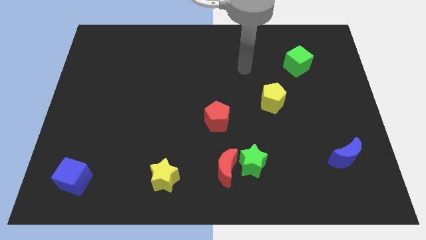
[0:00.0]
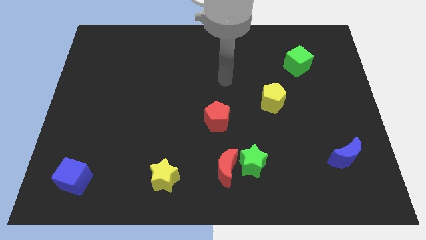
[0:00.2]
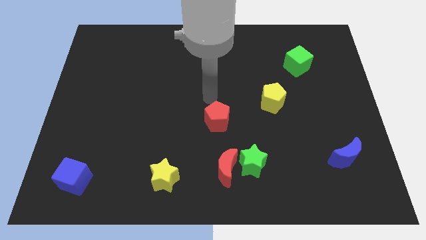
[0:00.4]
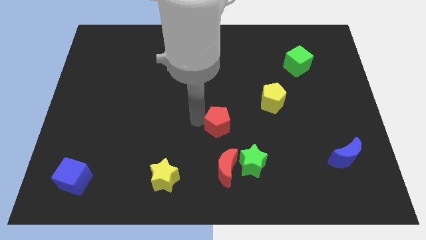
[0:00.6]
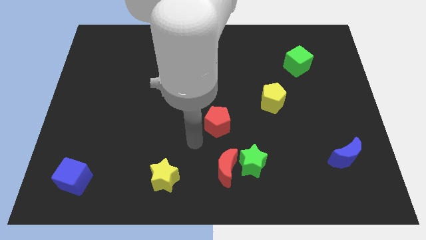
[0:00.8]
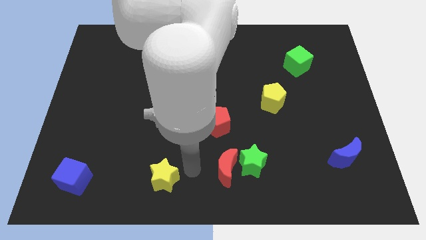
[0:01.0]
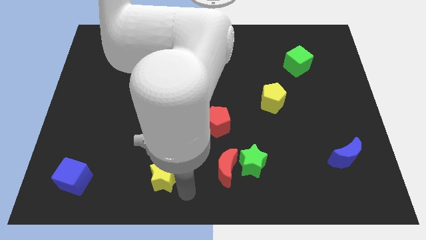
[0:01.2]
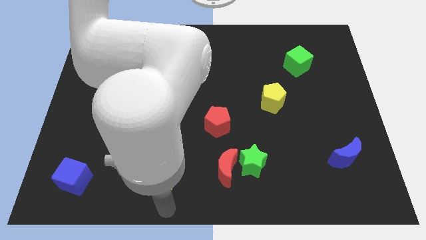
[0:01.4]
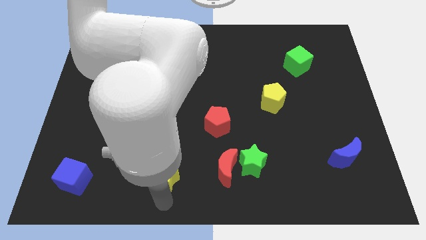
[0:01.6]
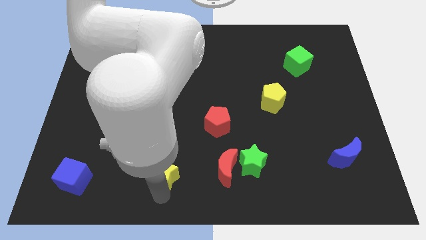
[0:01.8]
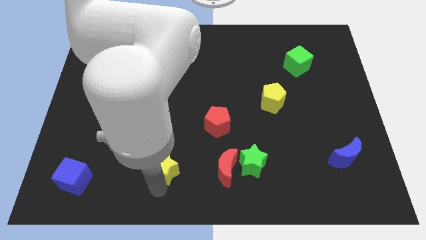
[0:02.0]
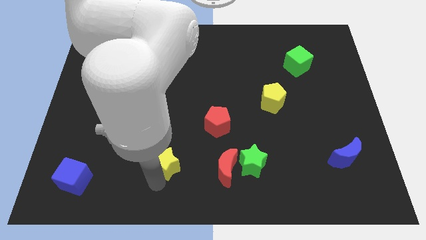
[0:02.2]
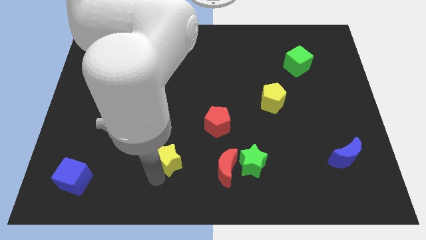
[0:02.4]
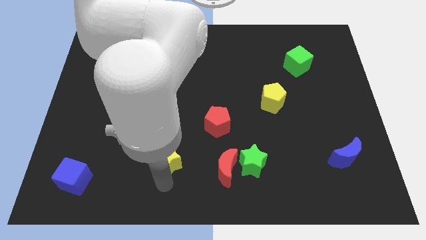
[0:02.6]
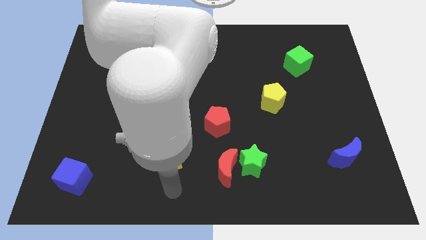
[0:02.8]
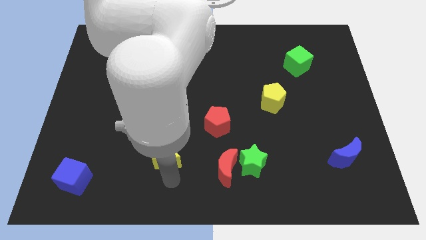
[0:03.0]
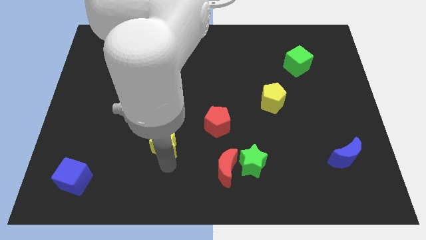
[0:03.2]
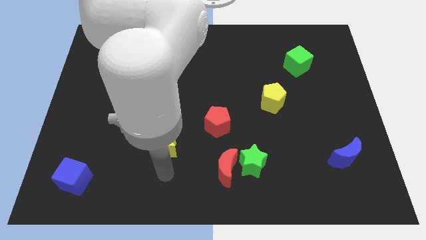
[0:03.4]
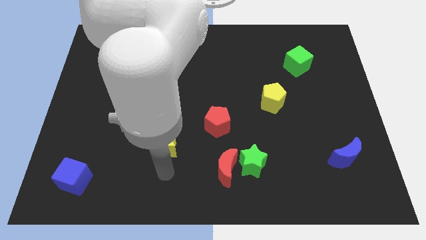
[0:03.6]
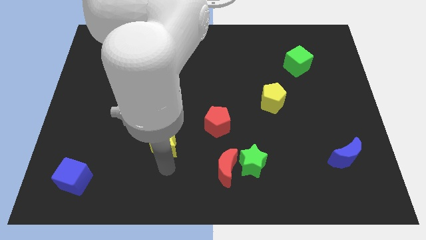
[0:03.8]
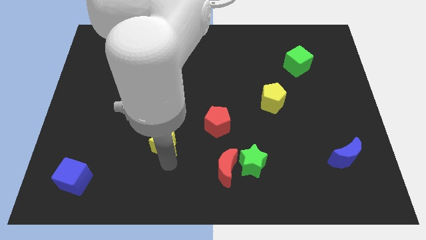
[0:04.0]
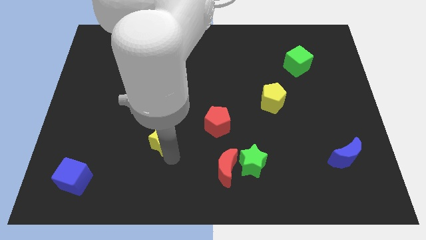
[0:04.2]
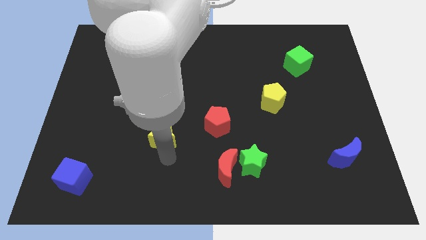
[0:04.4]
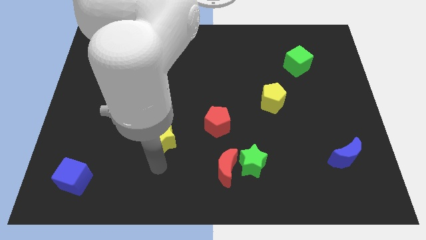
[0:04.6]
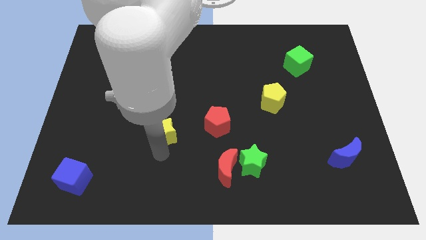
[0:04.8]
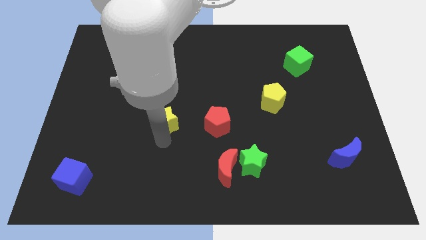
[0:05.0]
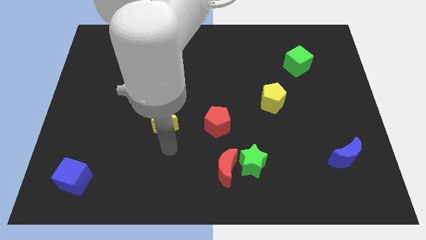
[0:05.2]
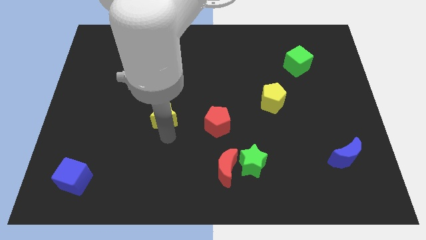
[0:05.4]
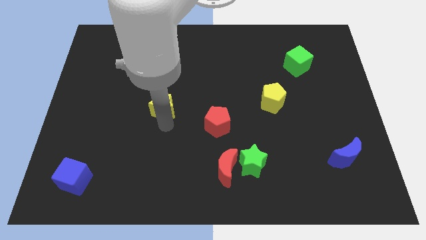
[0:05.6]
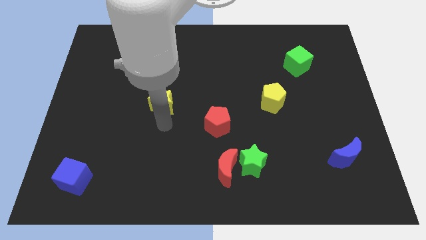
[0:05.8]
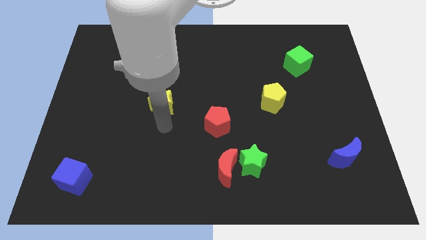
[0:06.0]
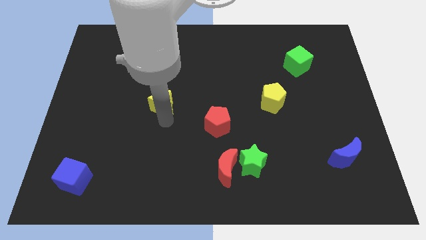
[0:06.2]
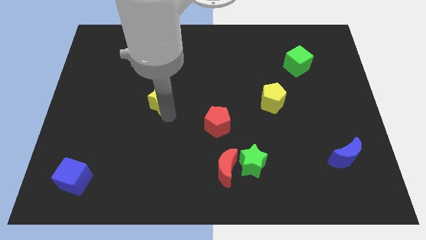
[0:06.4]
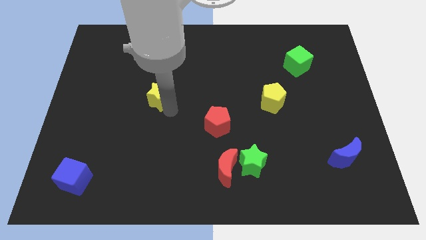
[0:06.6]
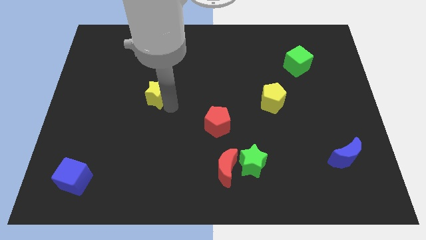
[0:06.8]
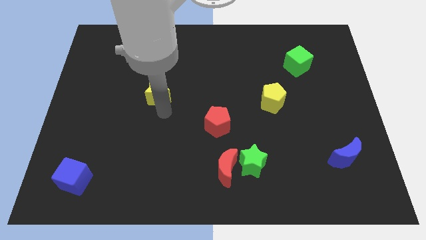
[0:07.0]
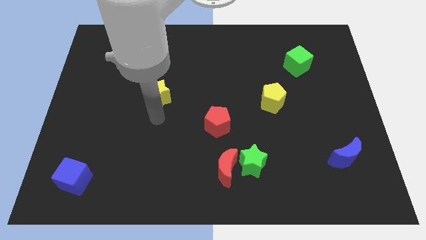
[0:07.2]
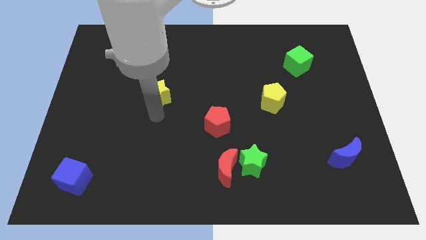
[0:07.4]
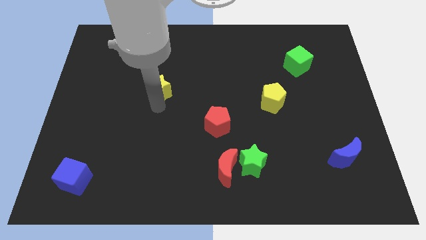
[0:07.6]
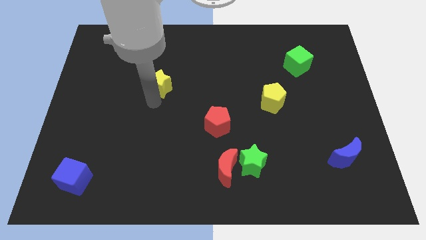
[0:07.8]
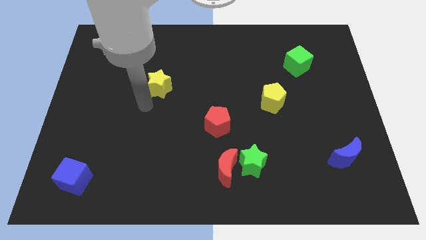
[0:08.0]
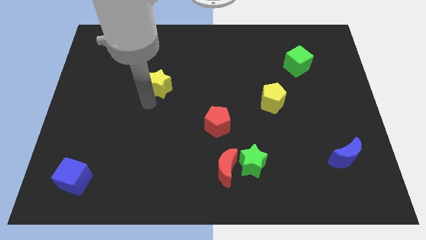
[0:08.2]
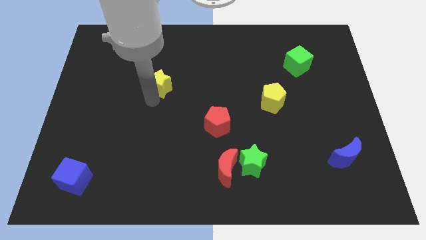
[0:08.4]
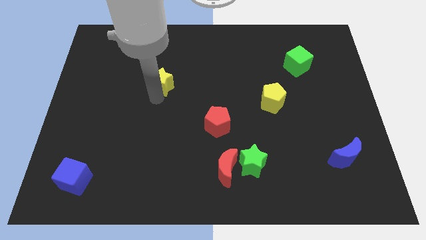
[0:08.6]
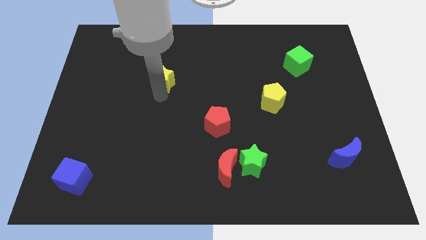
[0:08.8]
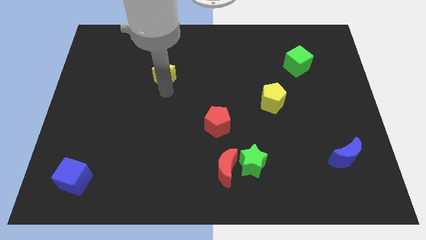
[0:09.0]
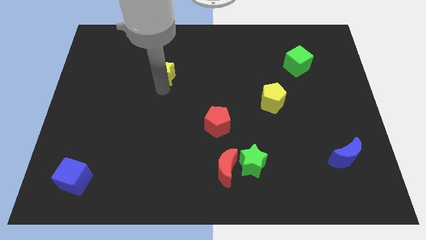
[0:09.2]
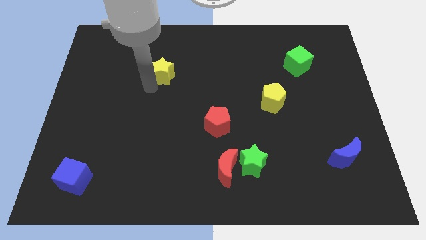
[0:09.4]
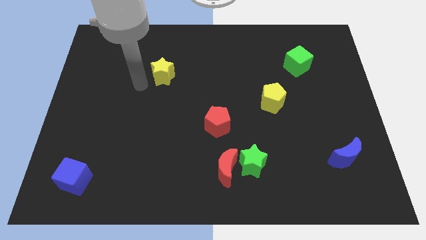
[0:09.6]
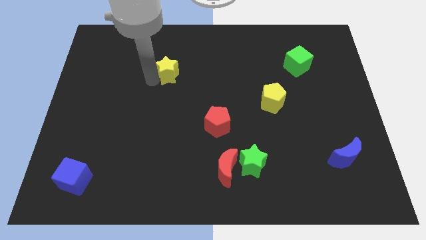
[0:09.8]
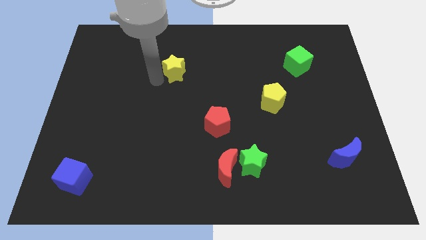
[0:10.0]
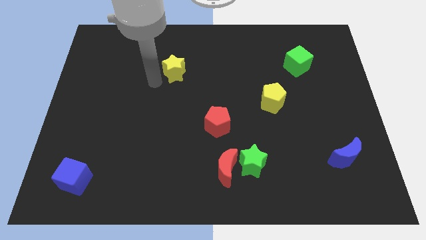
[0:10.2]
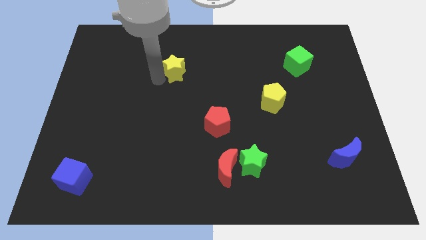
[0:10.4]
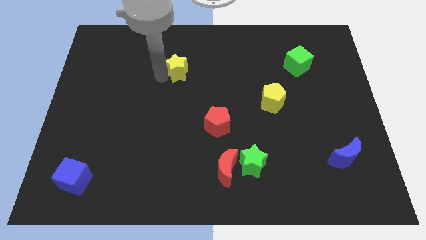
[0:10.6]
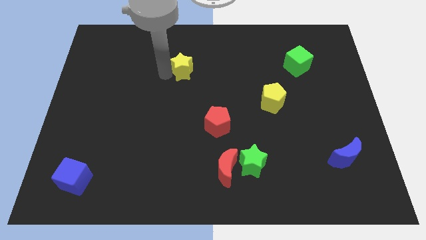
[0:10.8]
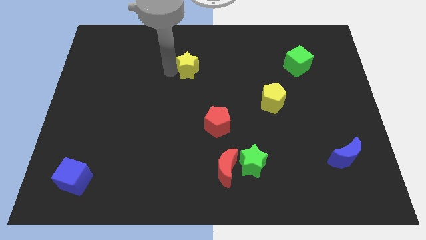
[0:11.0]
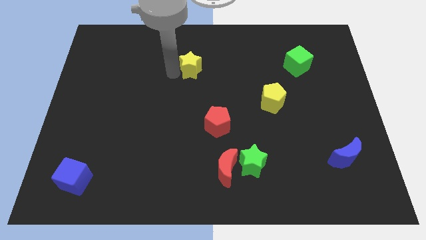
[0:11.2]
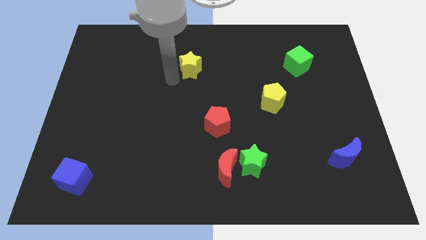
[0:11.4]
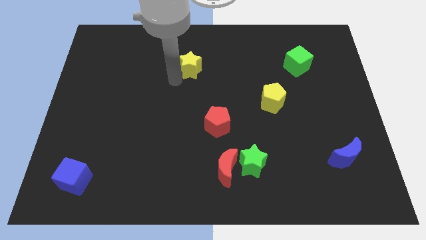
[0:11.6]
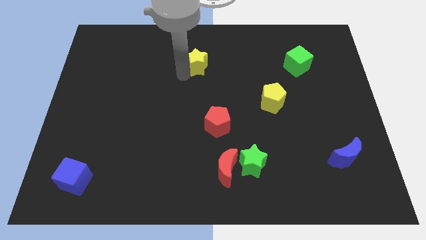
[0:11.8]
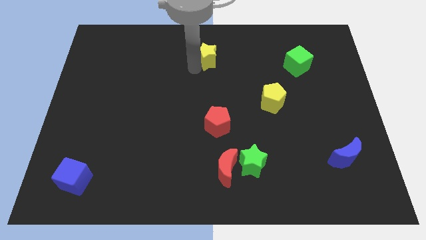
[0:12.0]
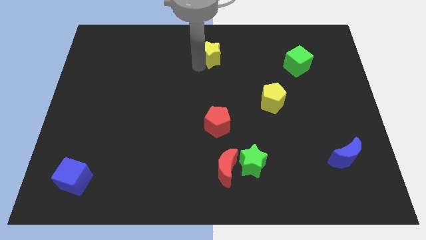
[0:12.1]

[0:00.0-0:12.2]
move the yellow star to the top

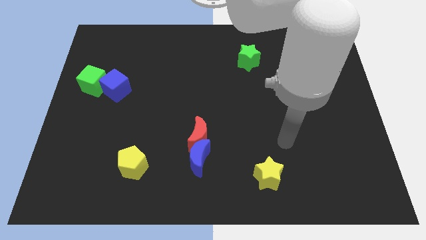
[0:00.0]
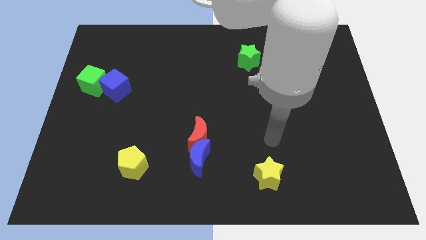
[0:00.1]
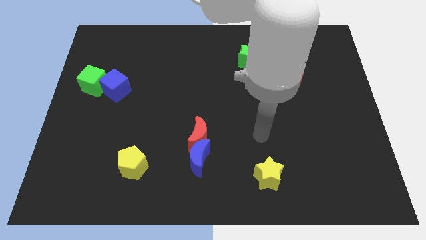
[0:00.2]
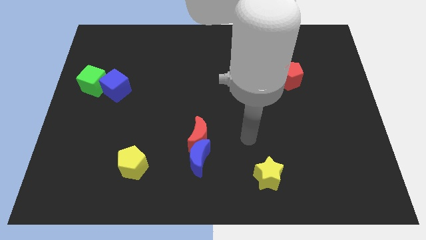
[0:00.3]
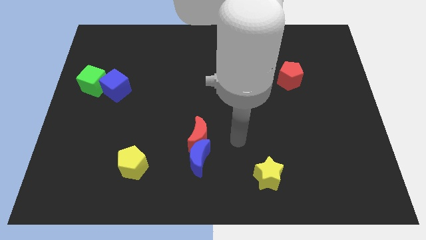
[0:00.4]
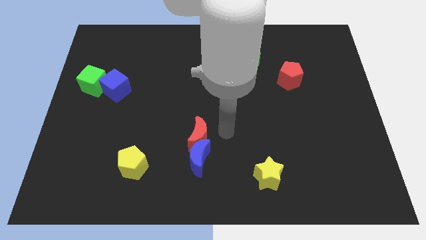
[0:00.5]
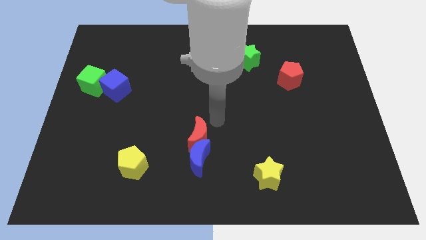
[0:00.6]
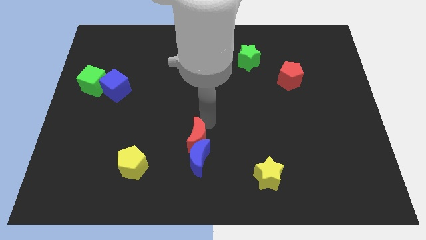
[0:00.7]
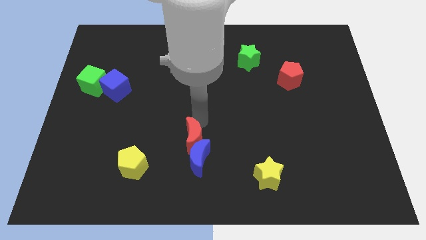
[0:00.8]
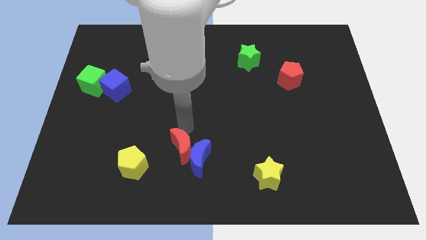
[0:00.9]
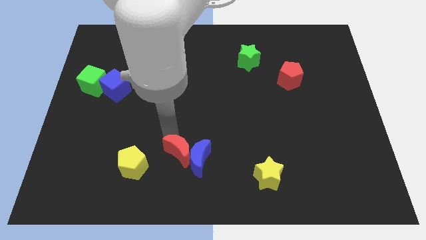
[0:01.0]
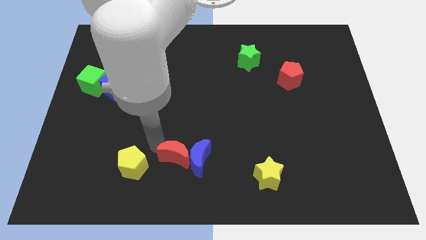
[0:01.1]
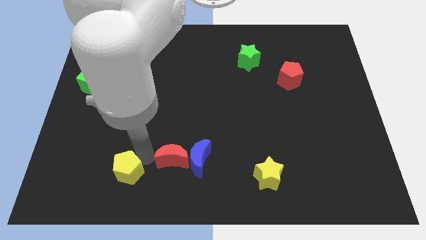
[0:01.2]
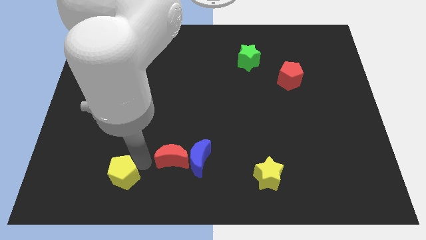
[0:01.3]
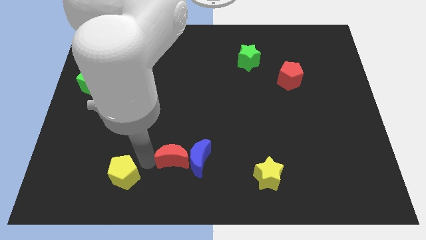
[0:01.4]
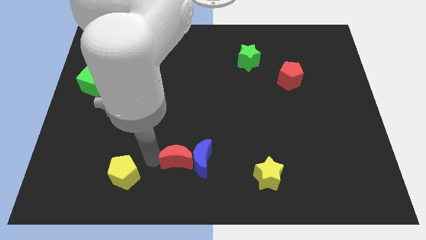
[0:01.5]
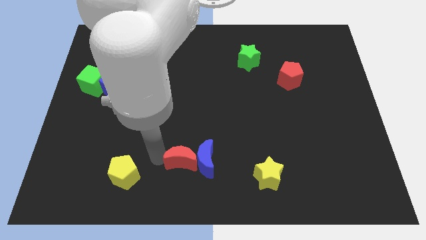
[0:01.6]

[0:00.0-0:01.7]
put the red moon to the bottom side
